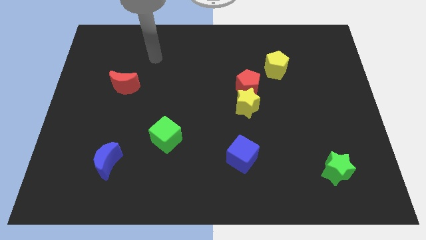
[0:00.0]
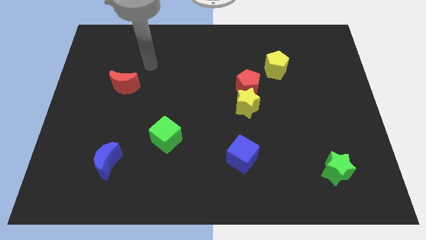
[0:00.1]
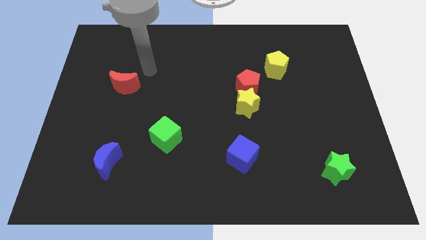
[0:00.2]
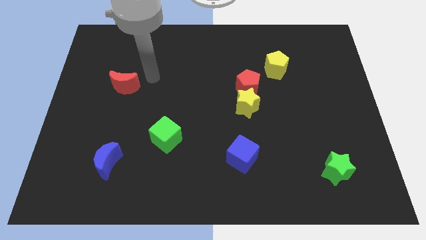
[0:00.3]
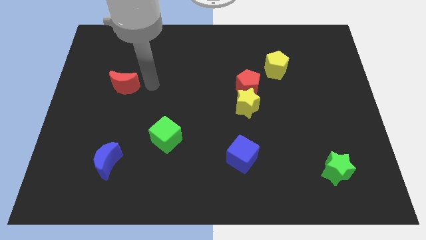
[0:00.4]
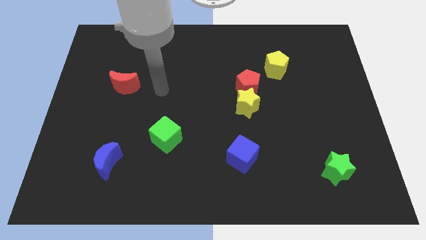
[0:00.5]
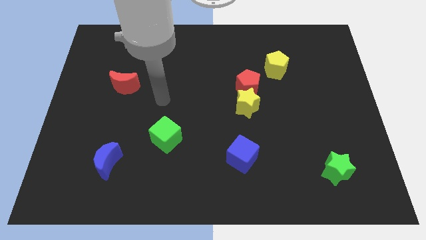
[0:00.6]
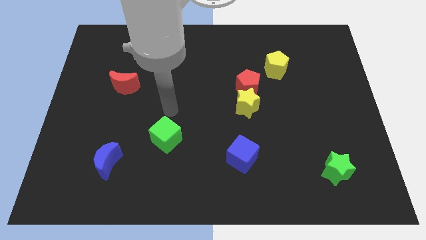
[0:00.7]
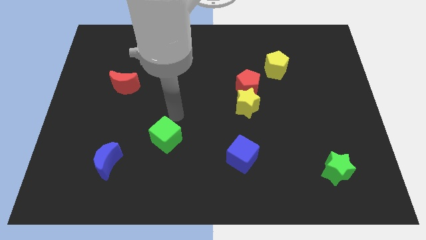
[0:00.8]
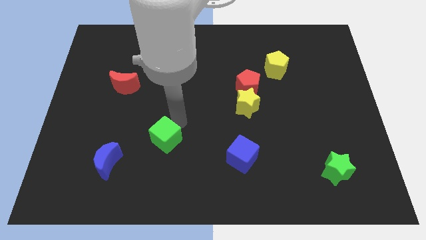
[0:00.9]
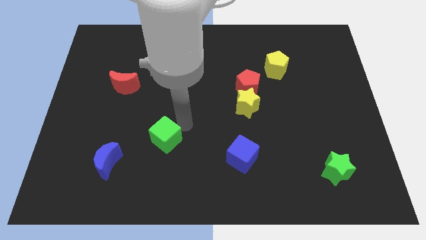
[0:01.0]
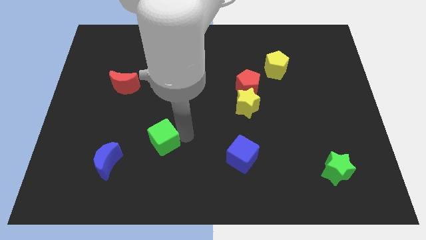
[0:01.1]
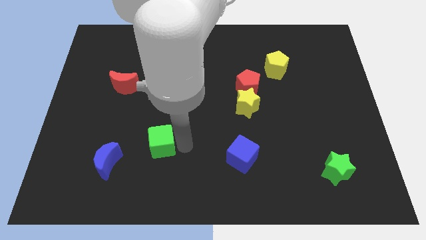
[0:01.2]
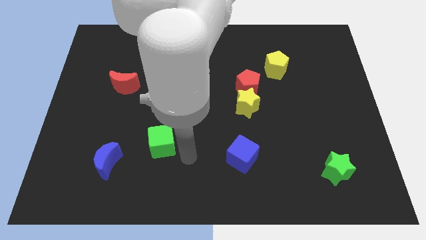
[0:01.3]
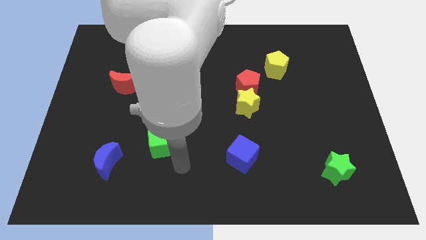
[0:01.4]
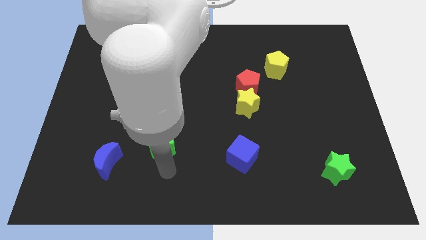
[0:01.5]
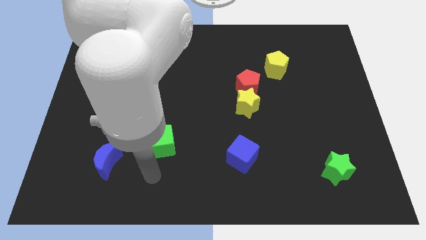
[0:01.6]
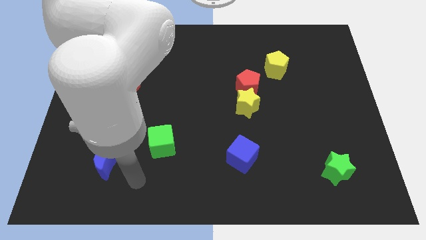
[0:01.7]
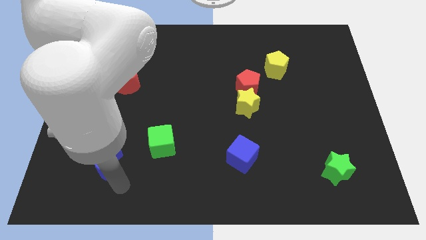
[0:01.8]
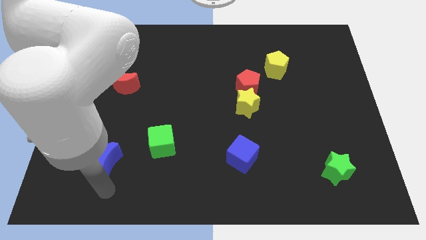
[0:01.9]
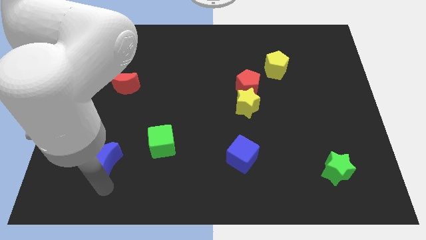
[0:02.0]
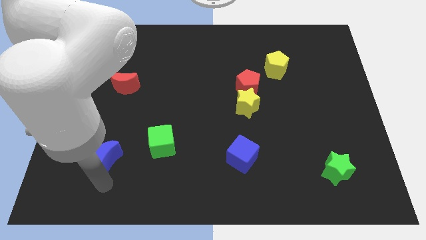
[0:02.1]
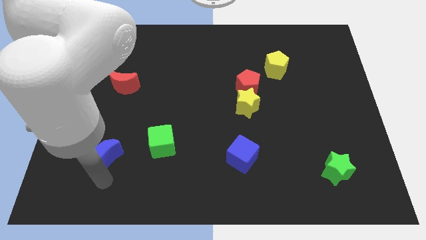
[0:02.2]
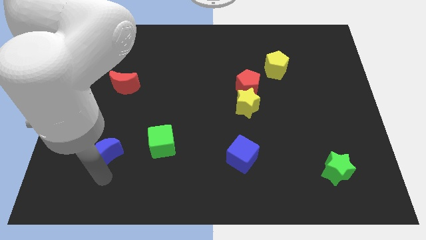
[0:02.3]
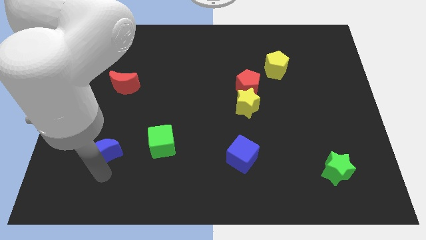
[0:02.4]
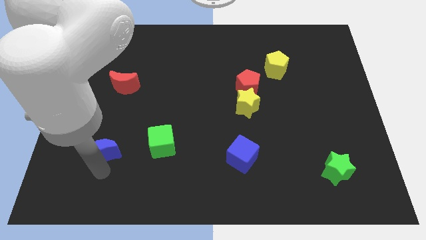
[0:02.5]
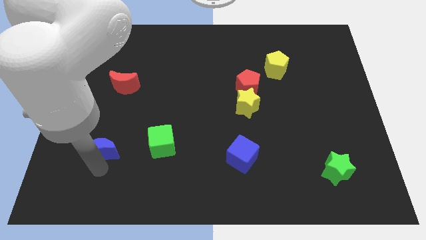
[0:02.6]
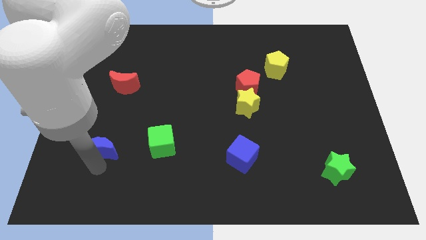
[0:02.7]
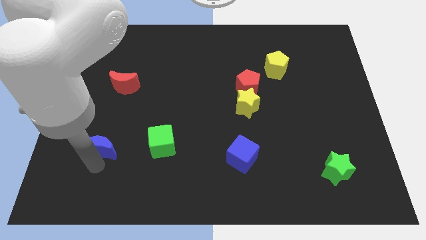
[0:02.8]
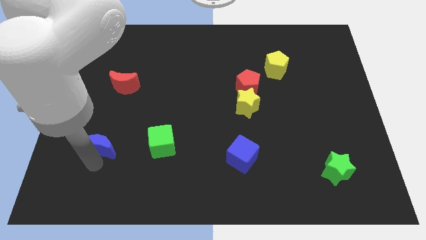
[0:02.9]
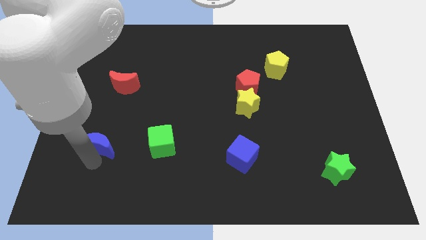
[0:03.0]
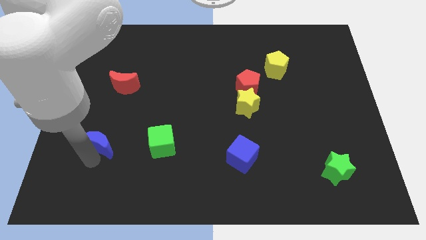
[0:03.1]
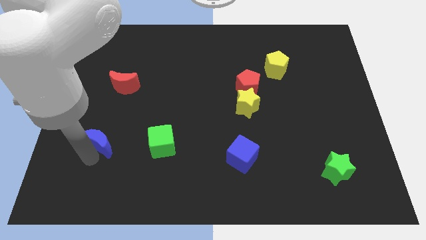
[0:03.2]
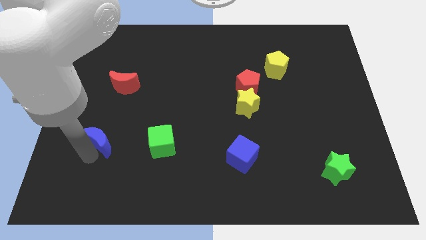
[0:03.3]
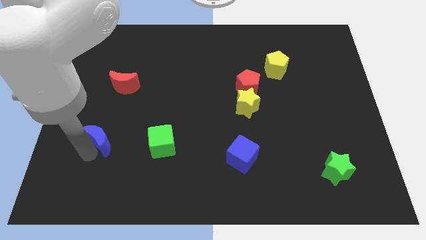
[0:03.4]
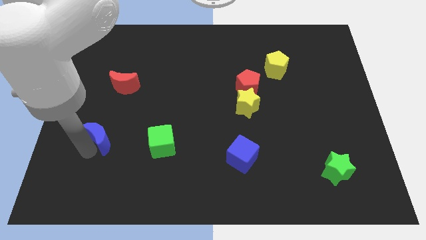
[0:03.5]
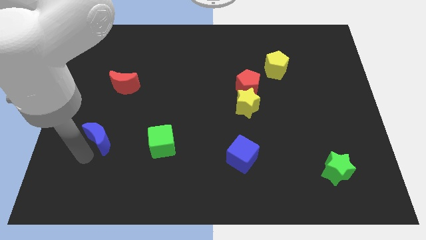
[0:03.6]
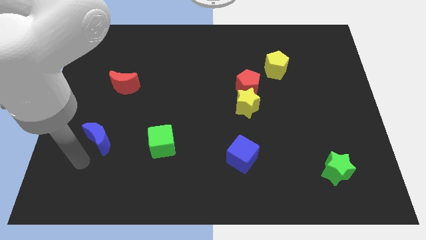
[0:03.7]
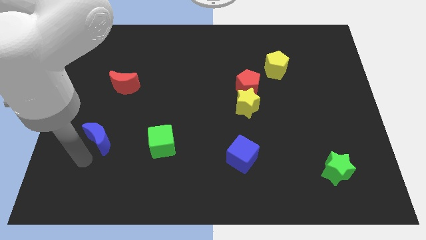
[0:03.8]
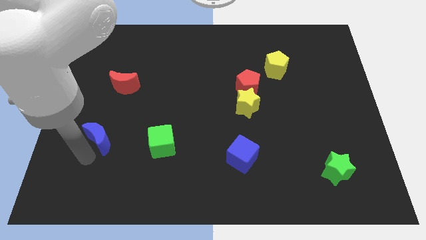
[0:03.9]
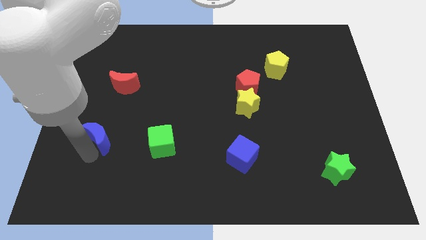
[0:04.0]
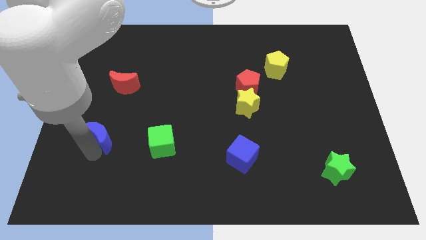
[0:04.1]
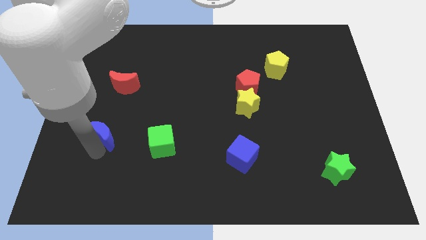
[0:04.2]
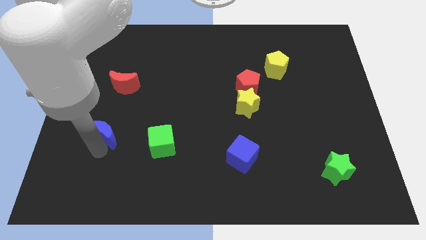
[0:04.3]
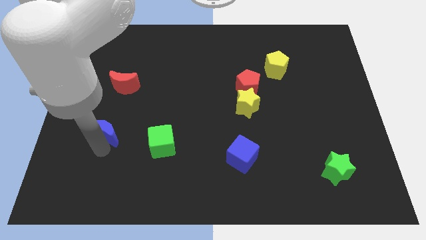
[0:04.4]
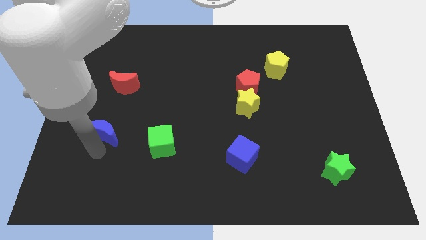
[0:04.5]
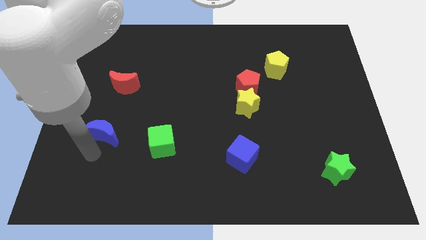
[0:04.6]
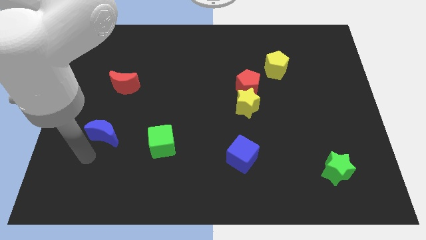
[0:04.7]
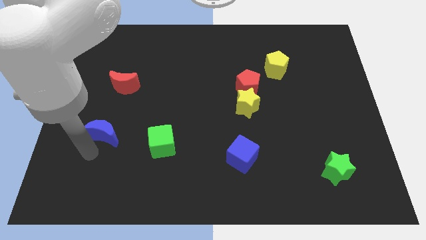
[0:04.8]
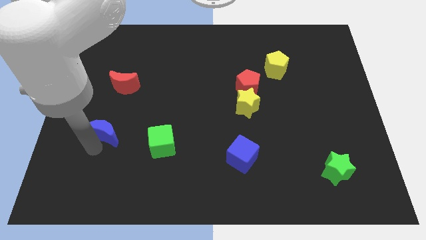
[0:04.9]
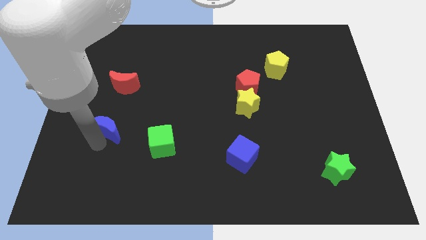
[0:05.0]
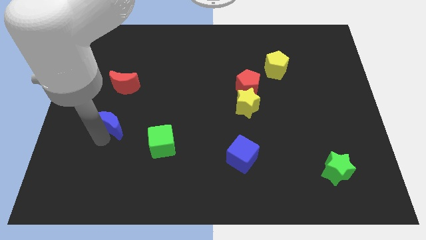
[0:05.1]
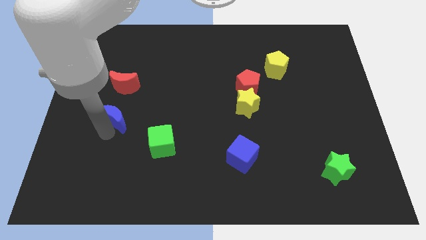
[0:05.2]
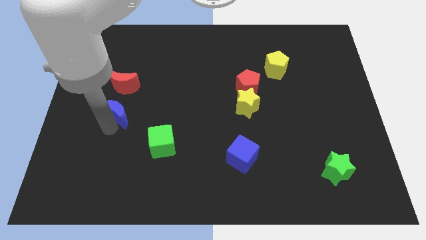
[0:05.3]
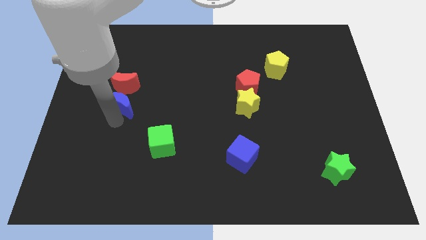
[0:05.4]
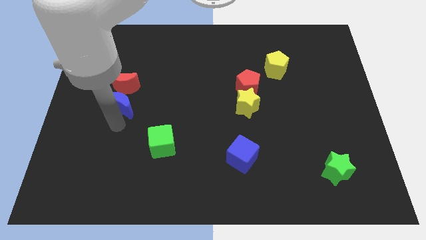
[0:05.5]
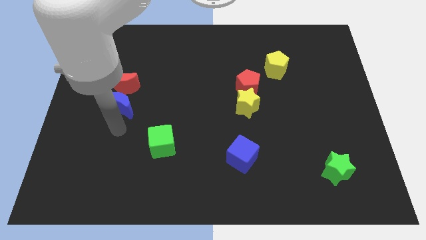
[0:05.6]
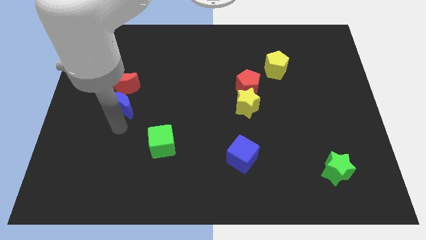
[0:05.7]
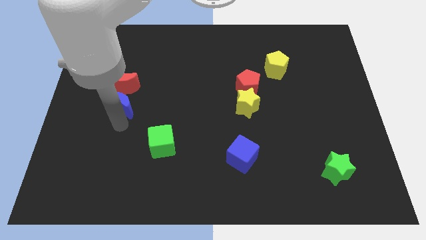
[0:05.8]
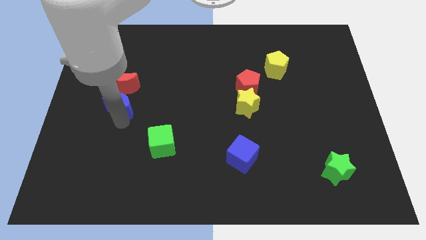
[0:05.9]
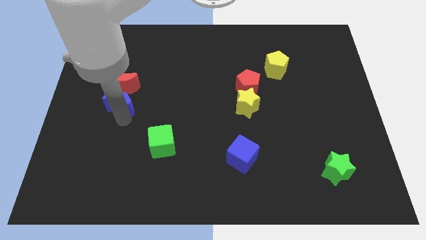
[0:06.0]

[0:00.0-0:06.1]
put the blue moon next to the red moon

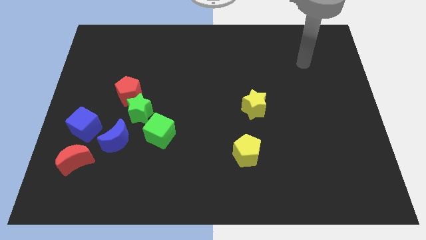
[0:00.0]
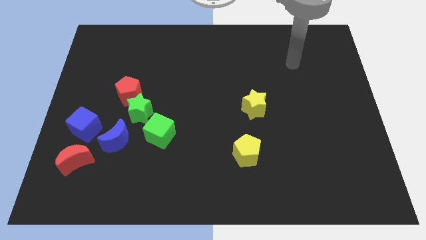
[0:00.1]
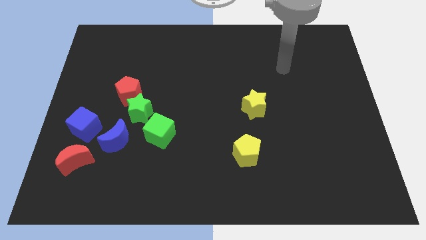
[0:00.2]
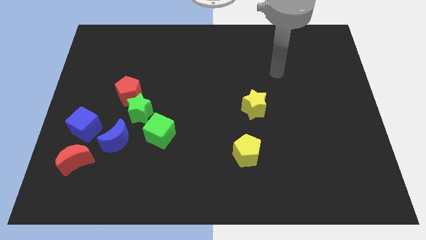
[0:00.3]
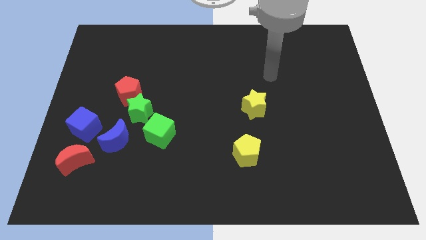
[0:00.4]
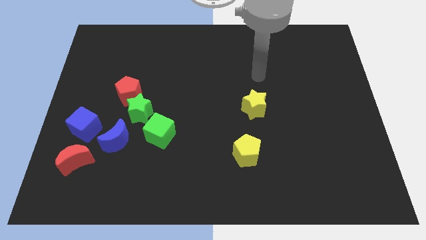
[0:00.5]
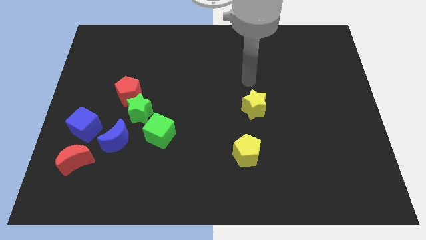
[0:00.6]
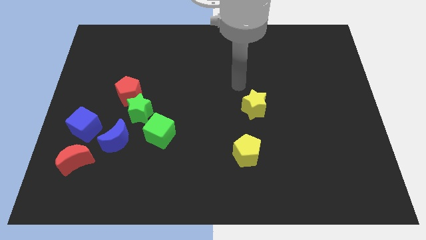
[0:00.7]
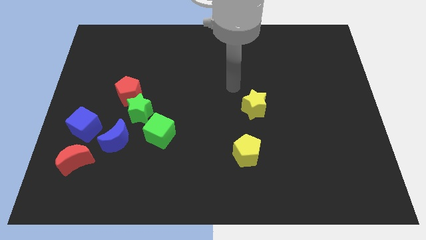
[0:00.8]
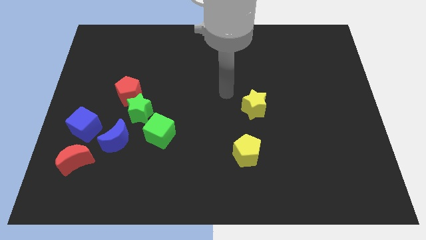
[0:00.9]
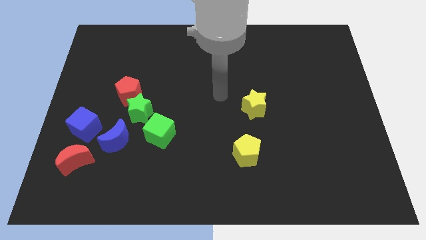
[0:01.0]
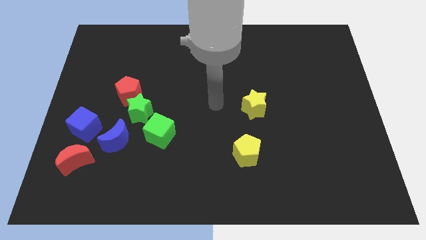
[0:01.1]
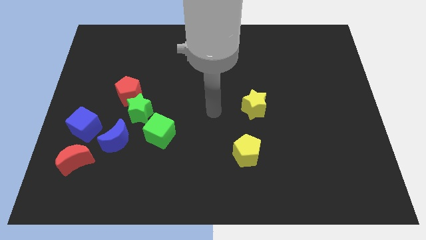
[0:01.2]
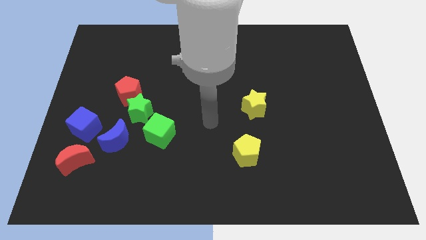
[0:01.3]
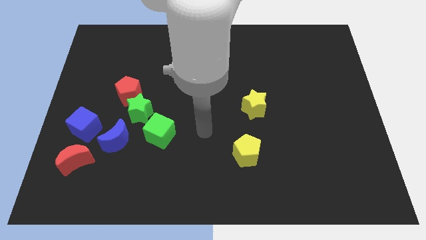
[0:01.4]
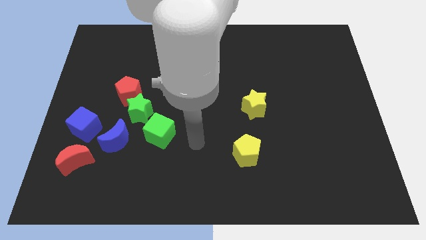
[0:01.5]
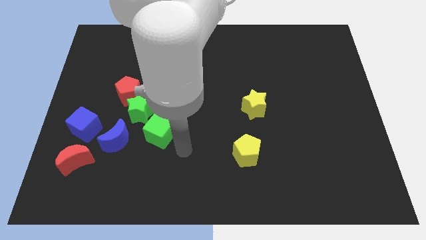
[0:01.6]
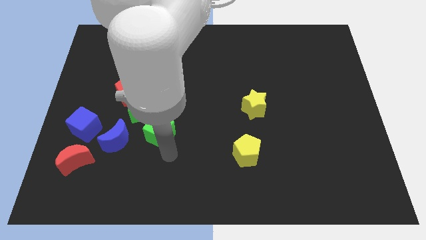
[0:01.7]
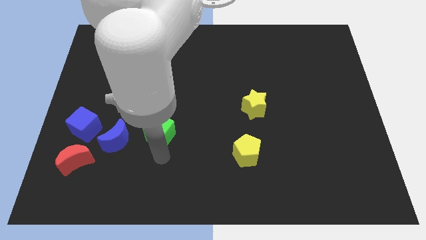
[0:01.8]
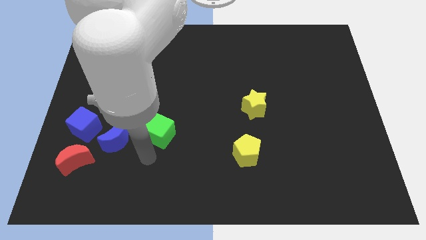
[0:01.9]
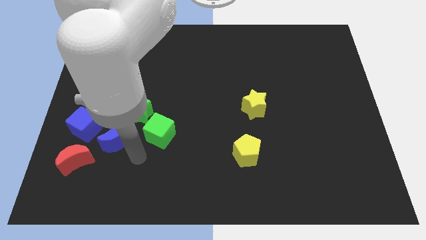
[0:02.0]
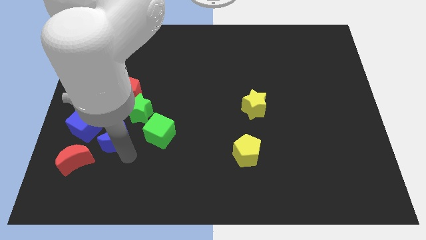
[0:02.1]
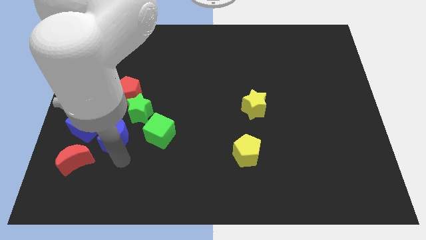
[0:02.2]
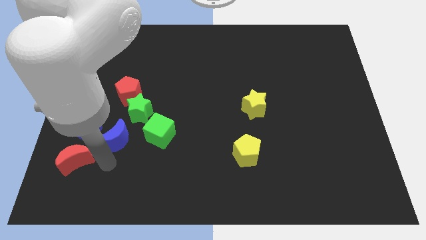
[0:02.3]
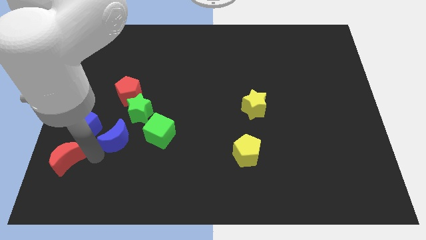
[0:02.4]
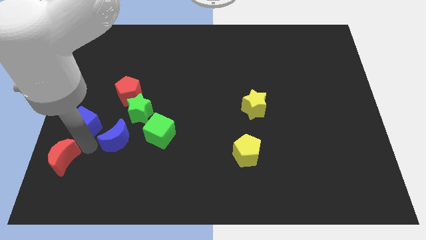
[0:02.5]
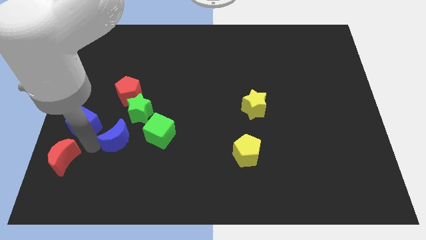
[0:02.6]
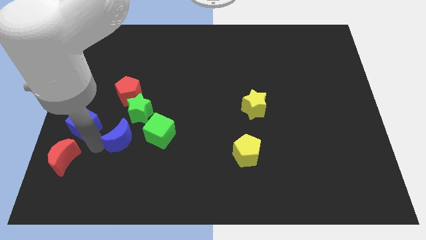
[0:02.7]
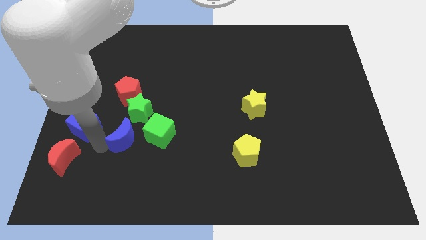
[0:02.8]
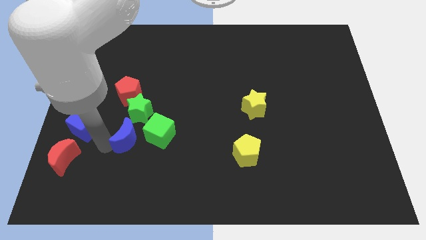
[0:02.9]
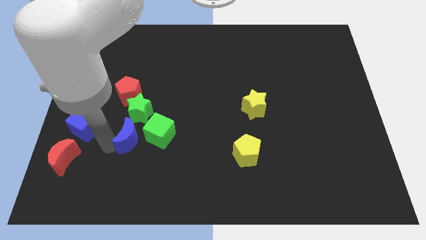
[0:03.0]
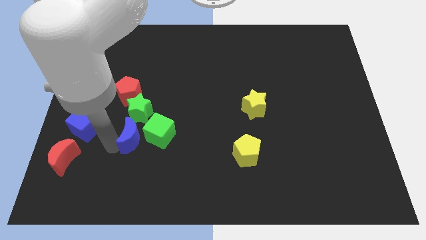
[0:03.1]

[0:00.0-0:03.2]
push the blue moon next to the green cube
